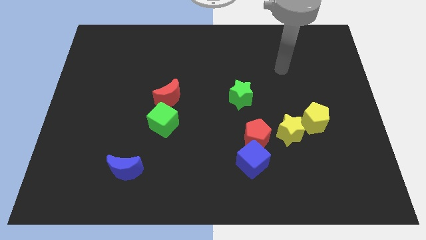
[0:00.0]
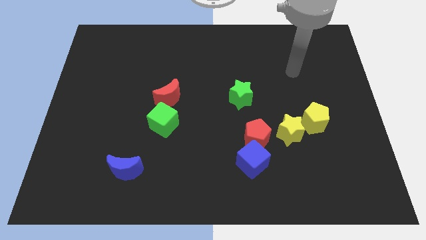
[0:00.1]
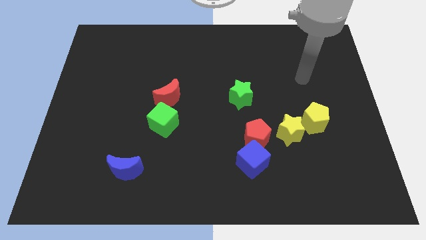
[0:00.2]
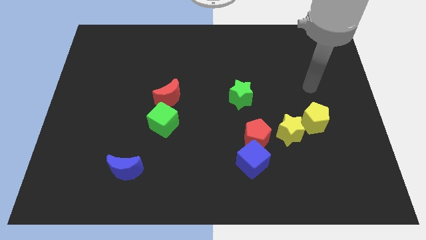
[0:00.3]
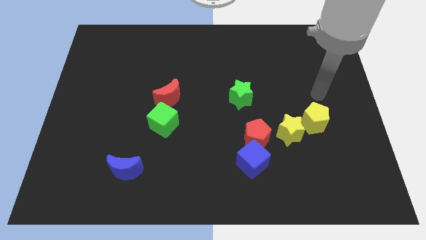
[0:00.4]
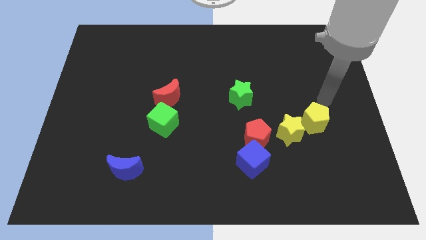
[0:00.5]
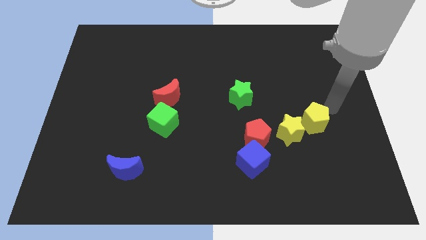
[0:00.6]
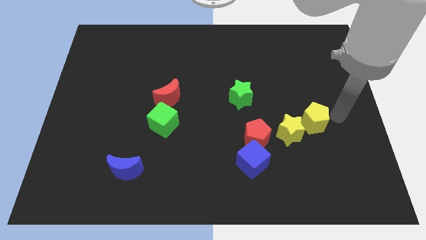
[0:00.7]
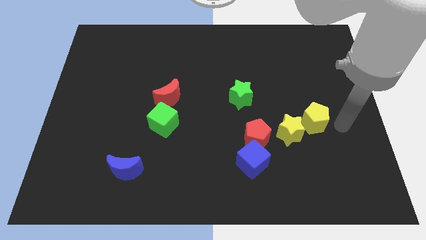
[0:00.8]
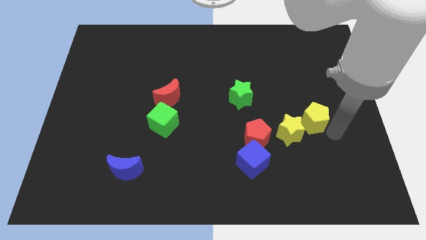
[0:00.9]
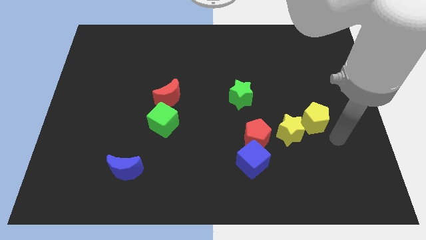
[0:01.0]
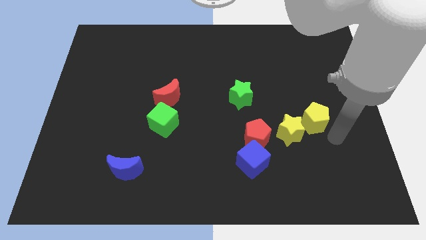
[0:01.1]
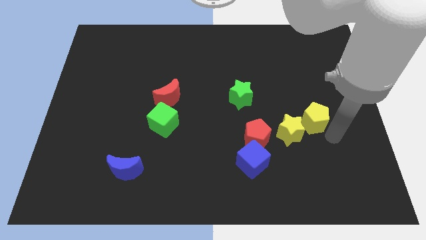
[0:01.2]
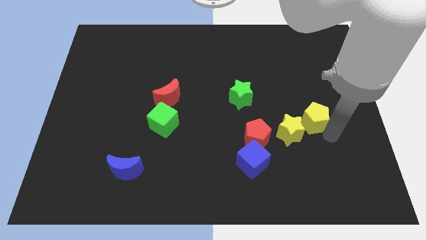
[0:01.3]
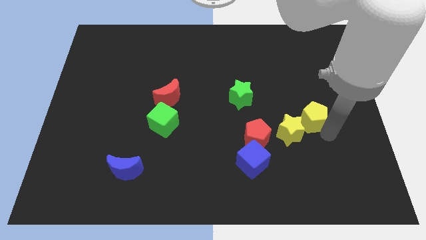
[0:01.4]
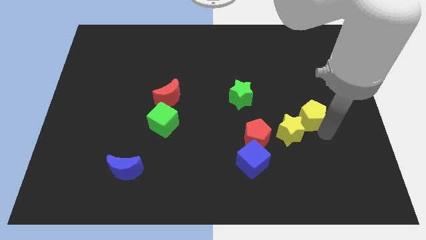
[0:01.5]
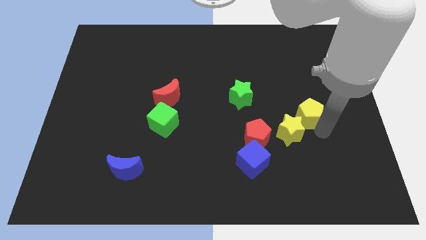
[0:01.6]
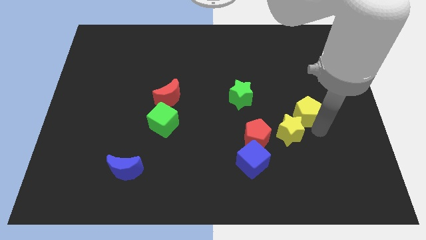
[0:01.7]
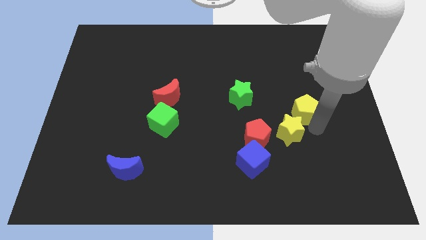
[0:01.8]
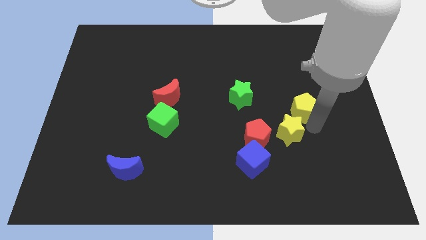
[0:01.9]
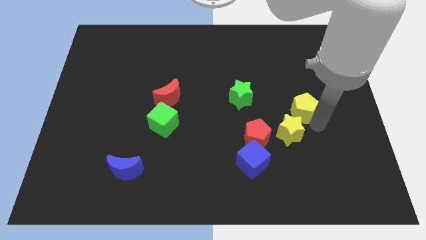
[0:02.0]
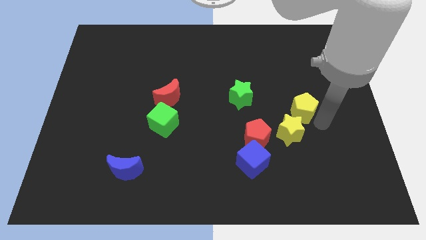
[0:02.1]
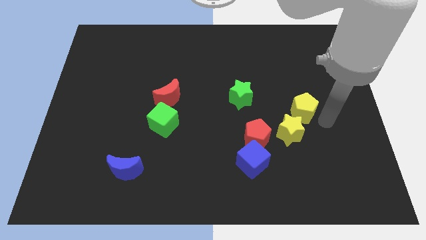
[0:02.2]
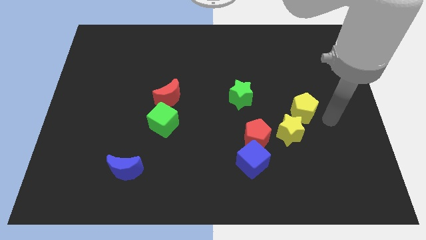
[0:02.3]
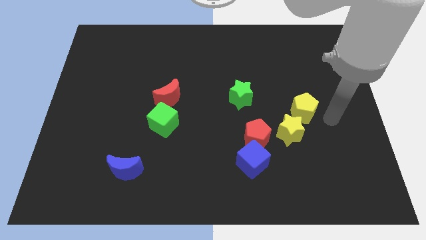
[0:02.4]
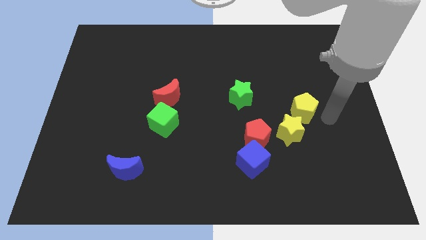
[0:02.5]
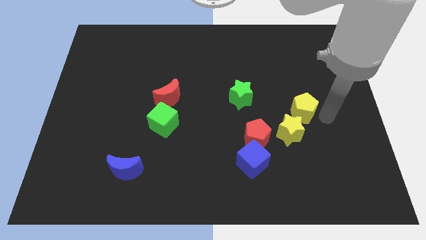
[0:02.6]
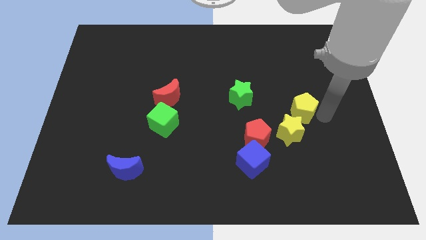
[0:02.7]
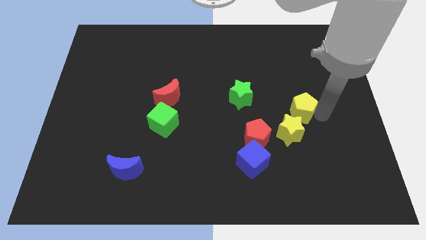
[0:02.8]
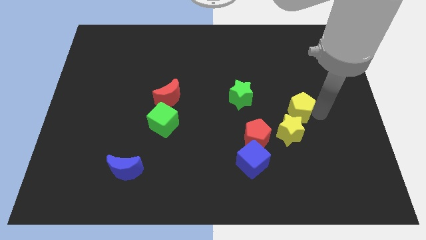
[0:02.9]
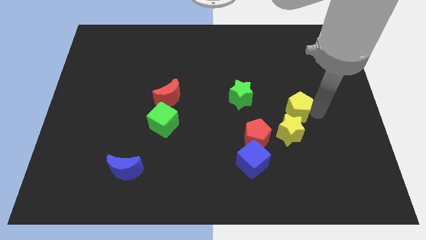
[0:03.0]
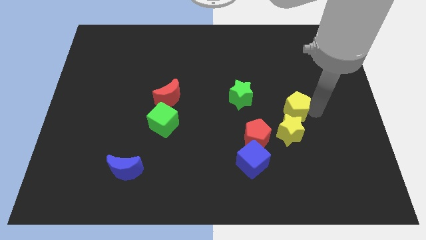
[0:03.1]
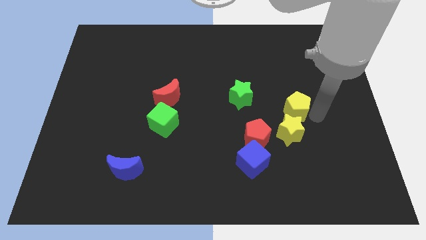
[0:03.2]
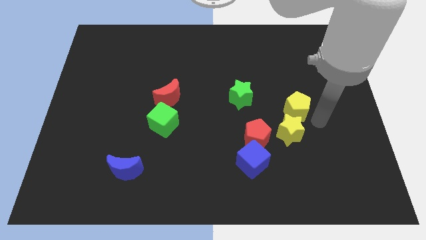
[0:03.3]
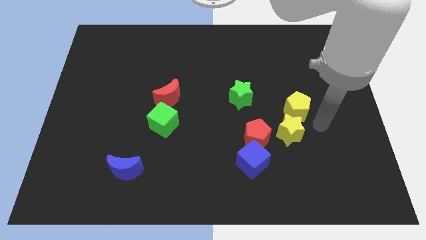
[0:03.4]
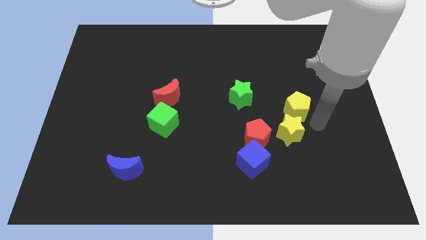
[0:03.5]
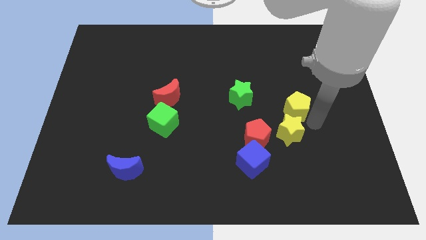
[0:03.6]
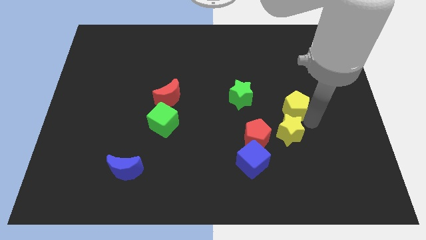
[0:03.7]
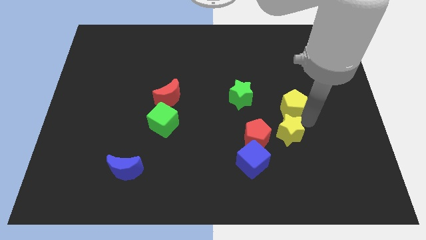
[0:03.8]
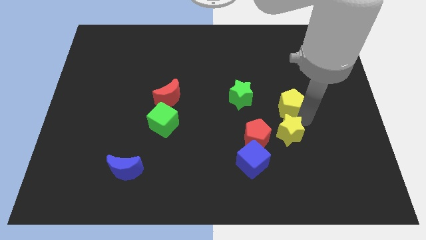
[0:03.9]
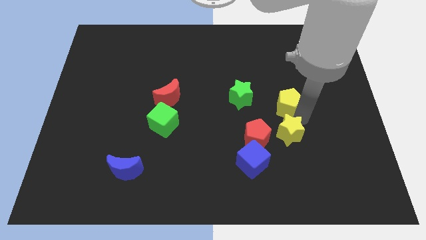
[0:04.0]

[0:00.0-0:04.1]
slightly push the yellow pentagon up and then to the left

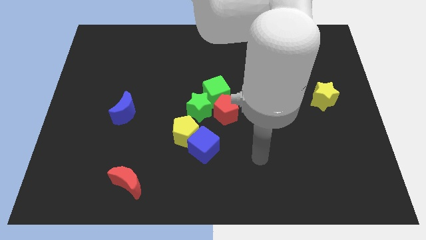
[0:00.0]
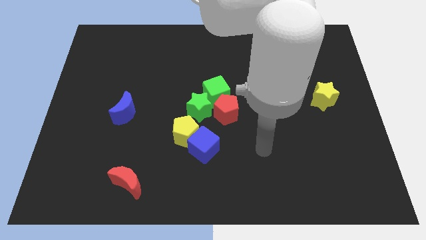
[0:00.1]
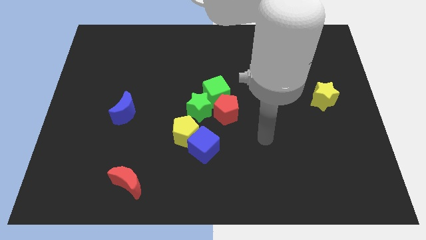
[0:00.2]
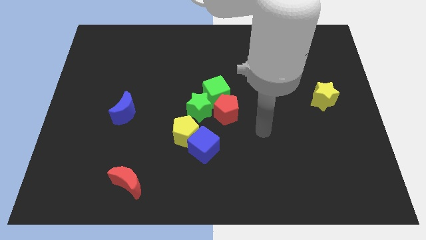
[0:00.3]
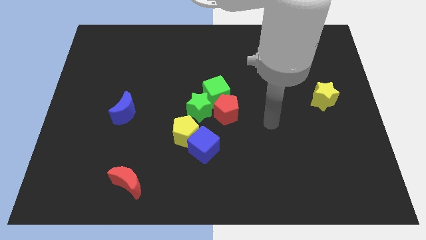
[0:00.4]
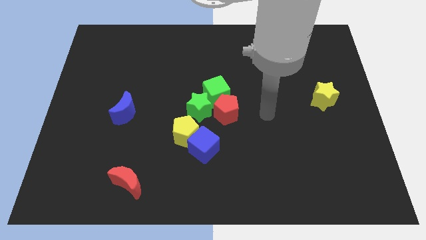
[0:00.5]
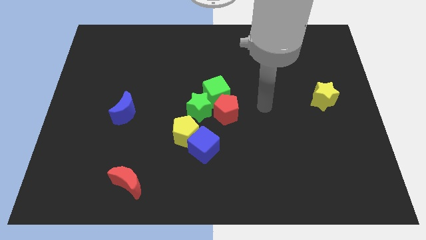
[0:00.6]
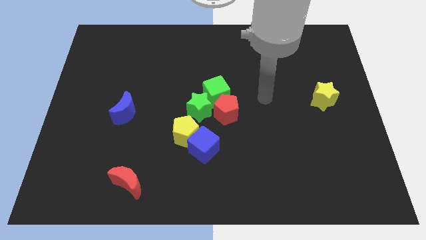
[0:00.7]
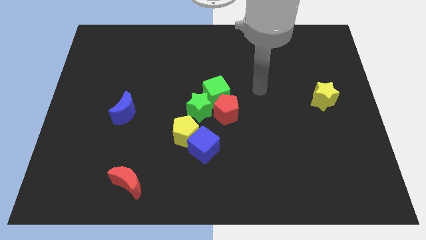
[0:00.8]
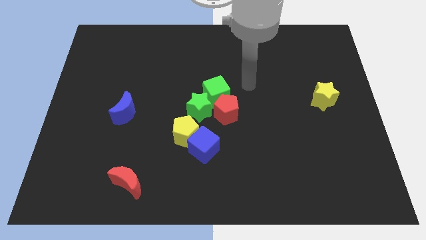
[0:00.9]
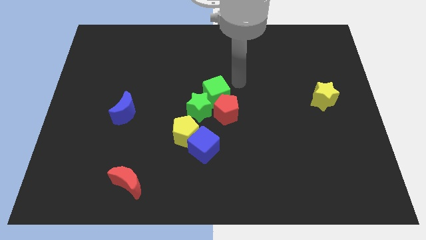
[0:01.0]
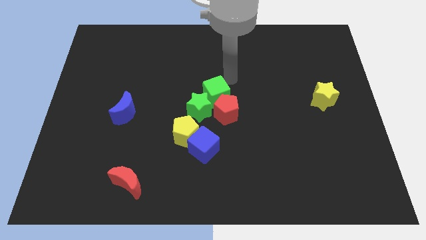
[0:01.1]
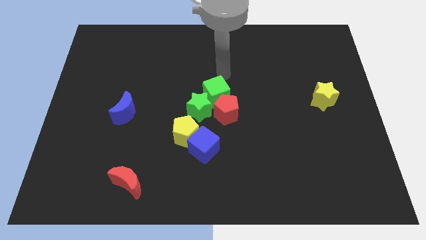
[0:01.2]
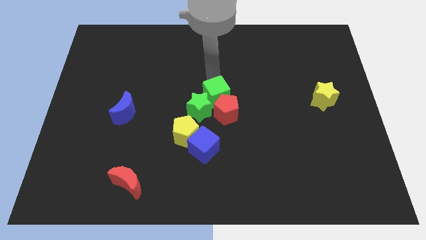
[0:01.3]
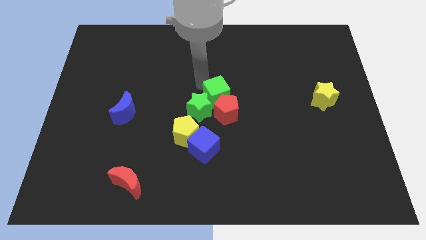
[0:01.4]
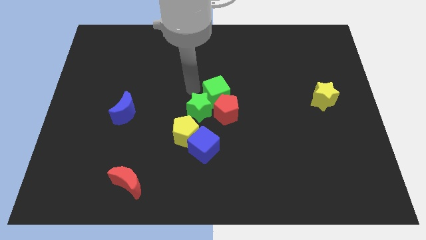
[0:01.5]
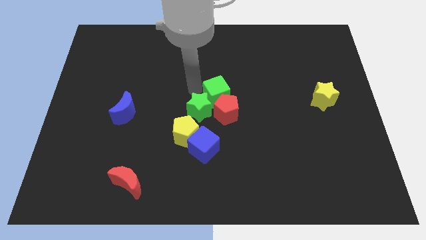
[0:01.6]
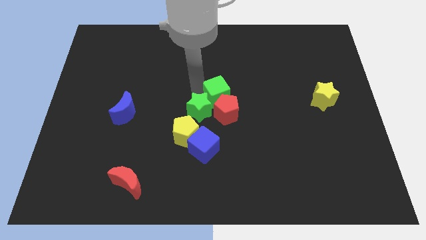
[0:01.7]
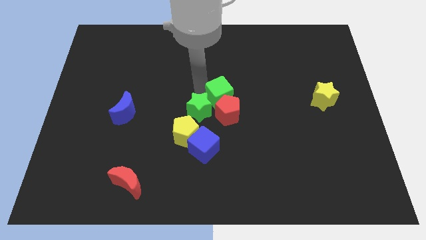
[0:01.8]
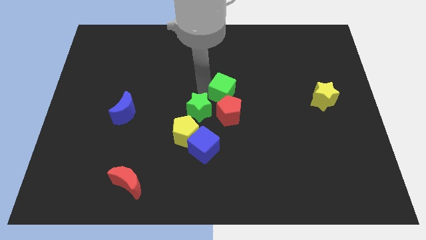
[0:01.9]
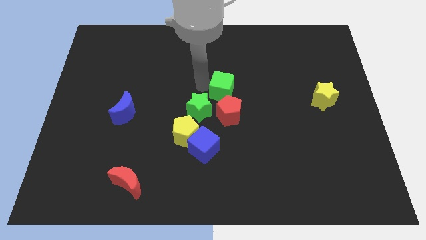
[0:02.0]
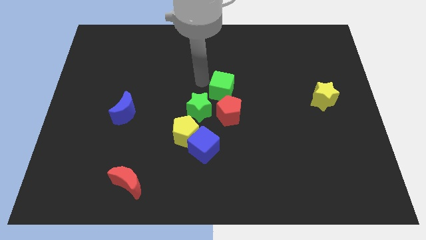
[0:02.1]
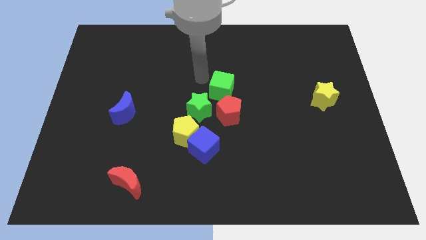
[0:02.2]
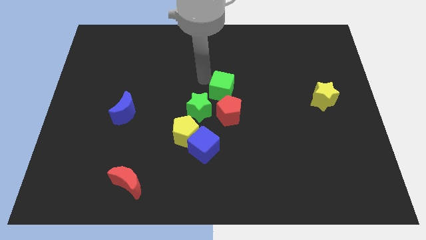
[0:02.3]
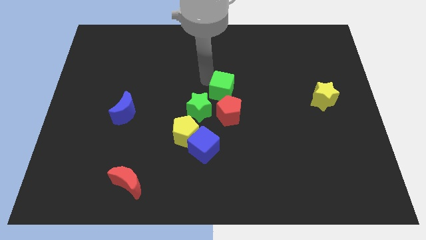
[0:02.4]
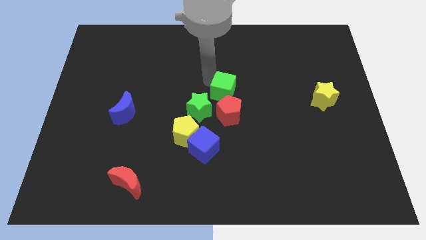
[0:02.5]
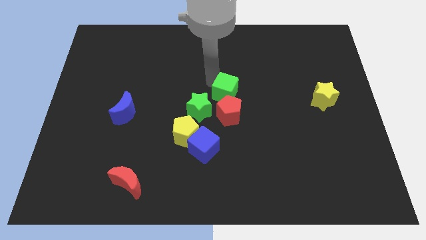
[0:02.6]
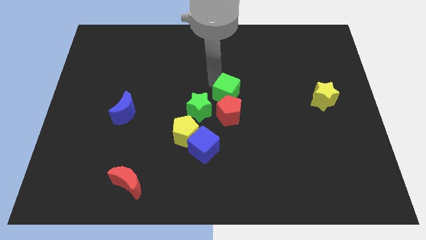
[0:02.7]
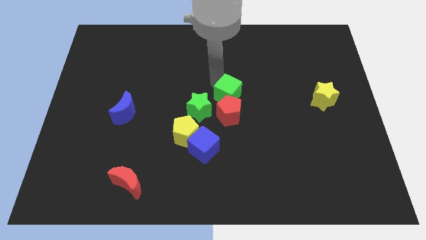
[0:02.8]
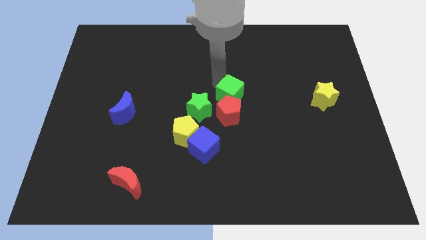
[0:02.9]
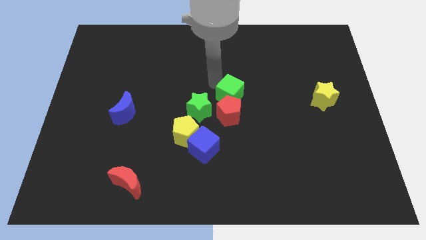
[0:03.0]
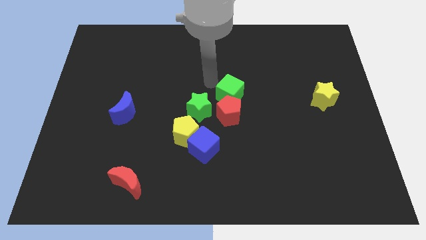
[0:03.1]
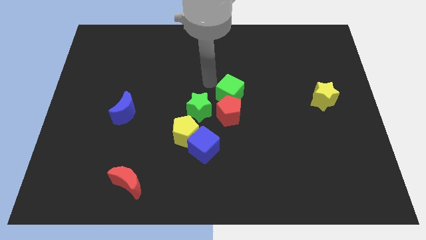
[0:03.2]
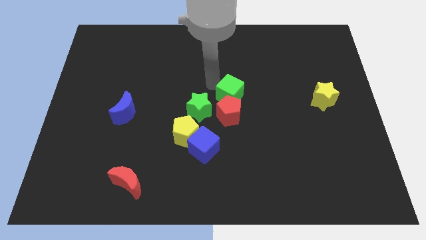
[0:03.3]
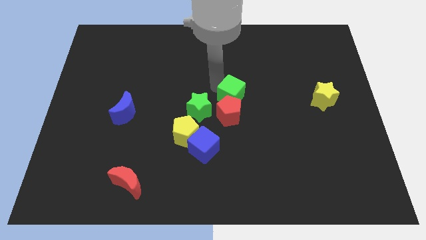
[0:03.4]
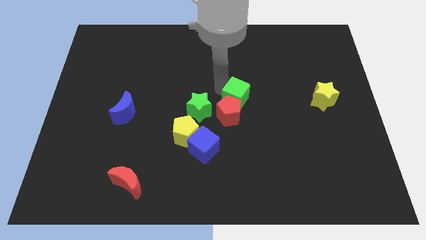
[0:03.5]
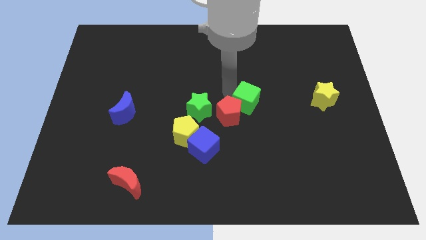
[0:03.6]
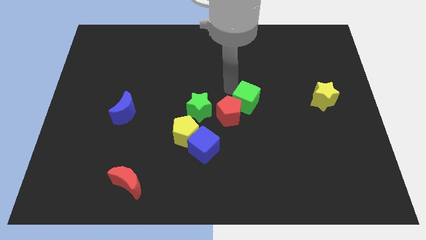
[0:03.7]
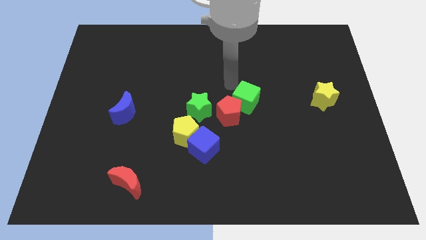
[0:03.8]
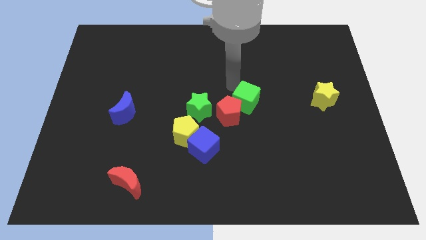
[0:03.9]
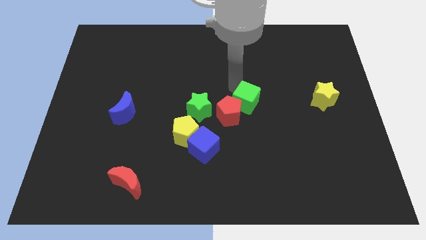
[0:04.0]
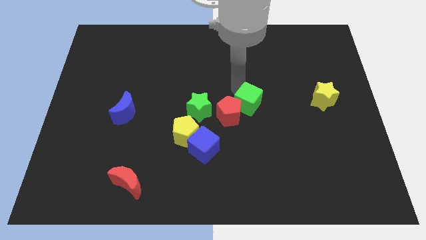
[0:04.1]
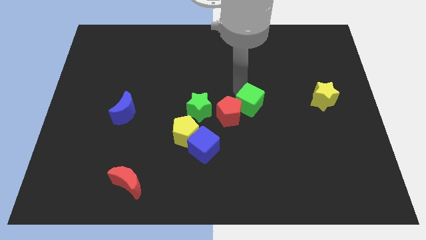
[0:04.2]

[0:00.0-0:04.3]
slightly push the green cube diagonally down and right

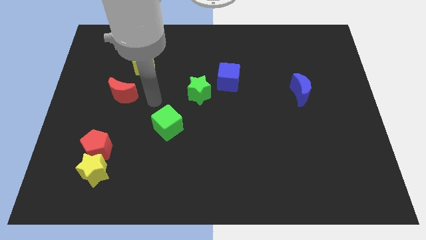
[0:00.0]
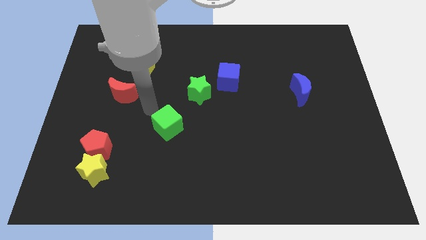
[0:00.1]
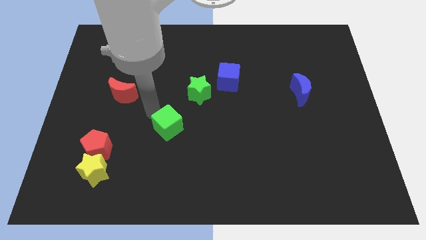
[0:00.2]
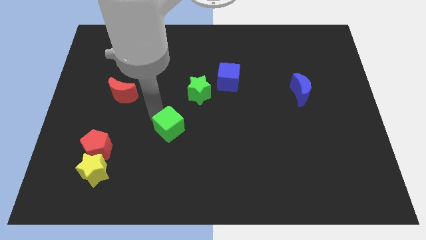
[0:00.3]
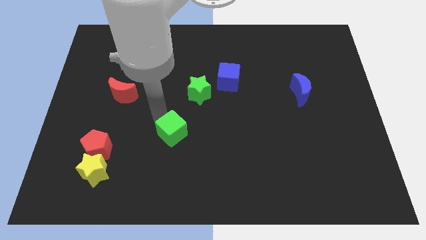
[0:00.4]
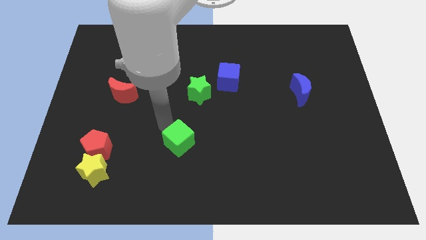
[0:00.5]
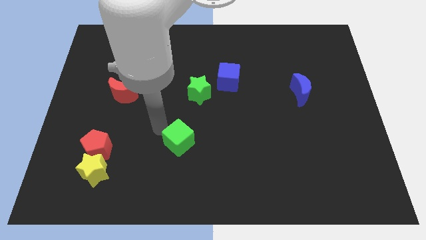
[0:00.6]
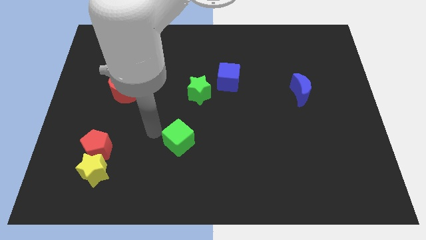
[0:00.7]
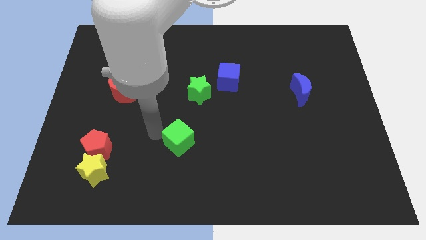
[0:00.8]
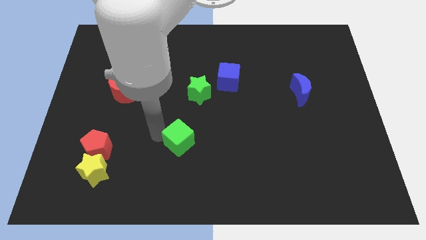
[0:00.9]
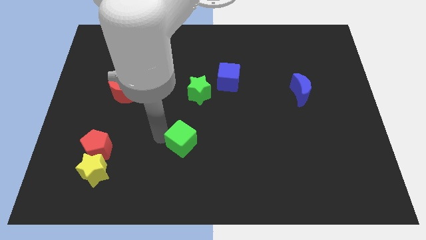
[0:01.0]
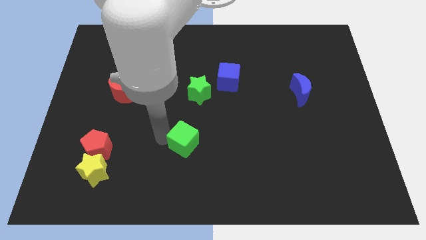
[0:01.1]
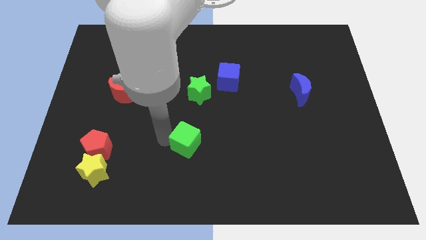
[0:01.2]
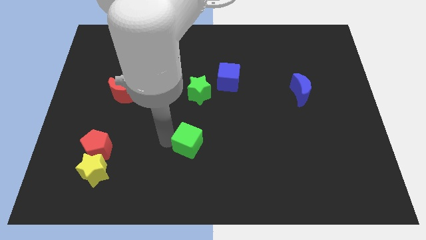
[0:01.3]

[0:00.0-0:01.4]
slightly push the green cube downwards and then to the right
